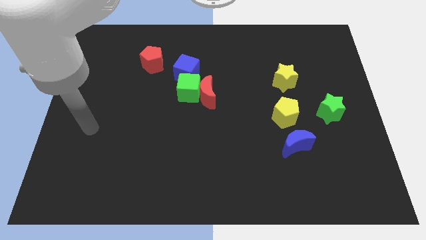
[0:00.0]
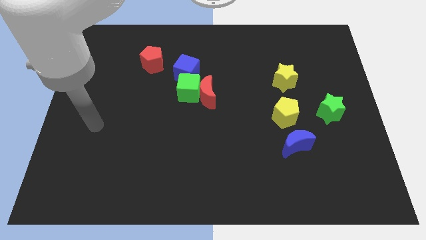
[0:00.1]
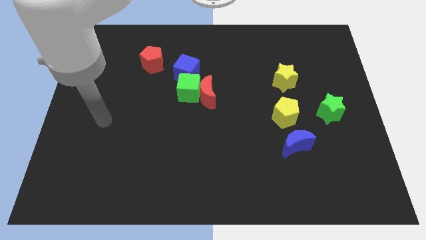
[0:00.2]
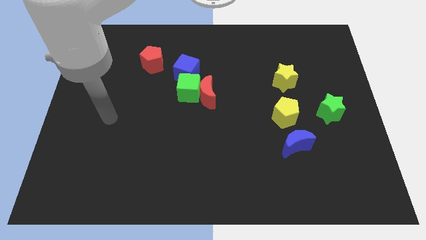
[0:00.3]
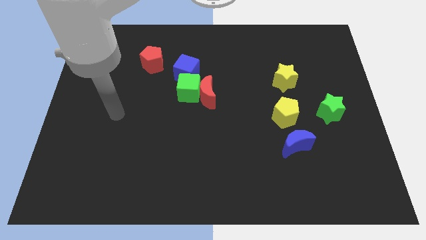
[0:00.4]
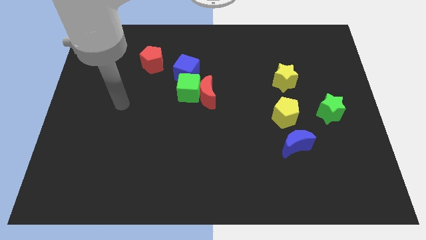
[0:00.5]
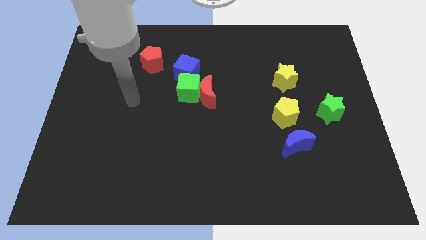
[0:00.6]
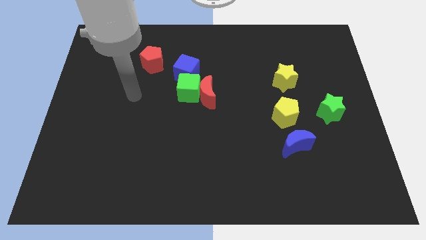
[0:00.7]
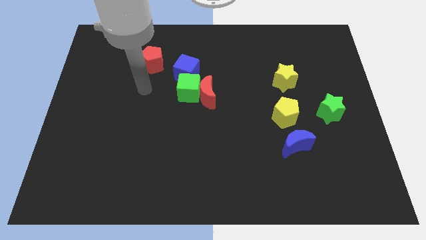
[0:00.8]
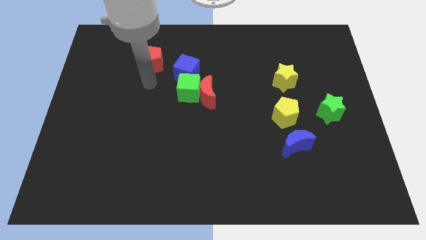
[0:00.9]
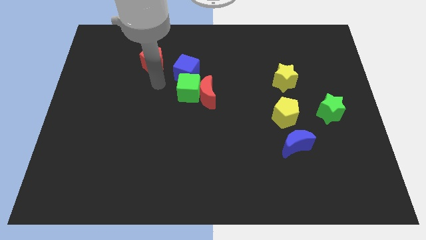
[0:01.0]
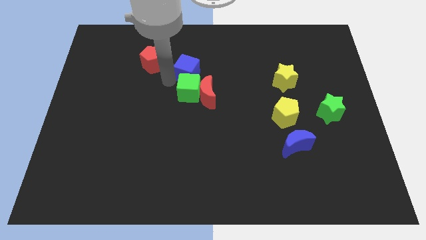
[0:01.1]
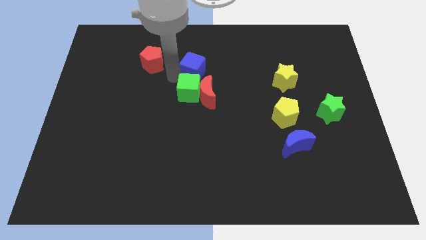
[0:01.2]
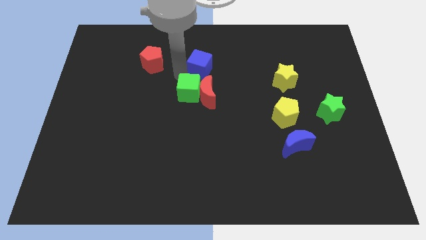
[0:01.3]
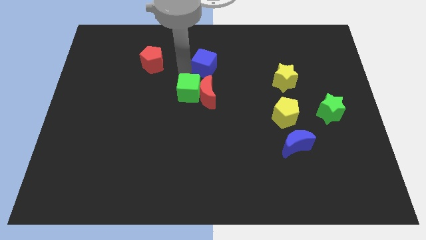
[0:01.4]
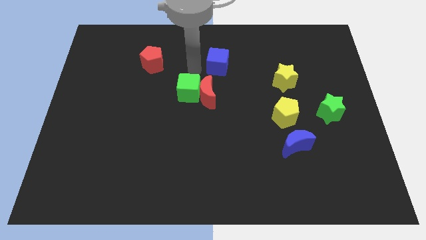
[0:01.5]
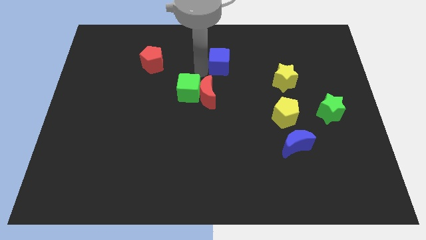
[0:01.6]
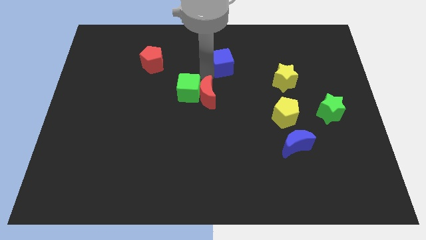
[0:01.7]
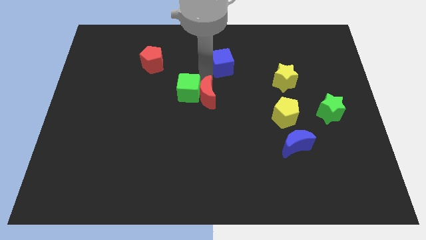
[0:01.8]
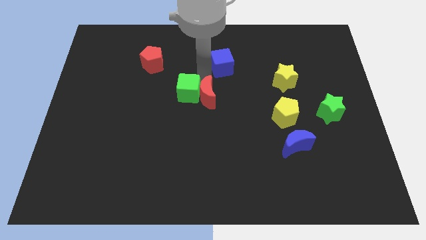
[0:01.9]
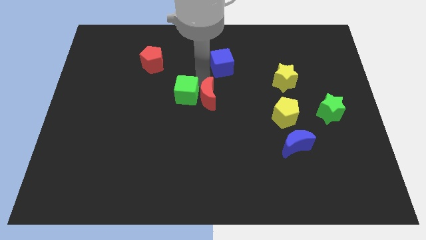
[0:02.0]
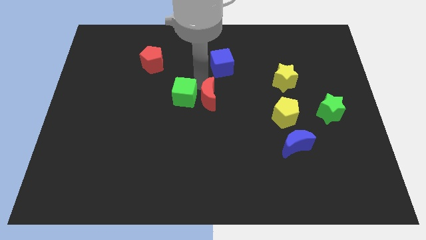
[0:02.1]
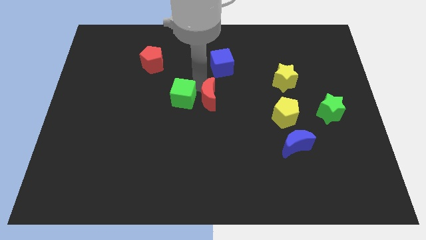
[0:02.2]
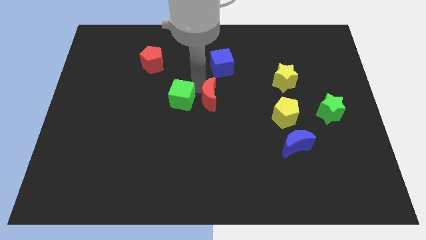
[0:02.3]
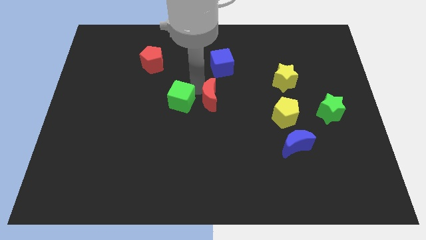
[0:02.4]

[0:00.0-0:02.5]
pull the green cube apart from the red moon and blue cube

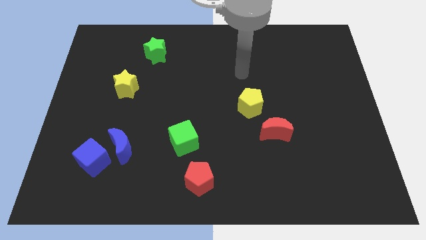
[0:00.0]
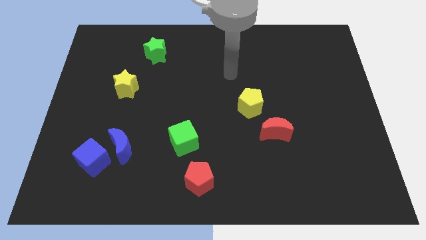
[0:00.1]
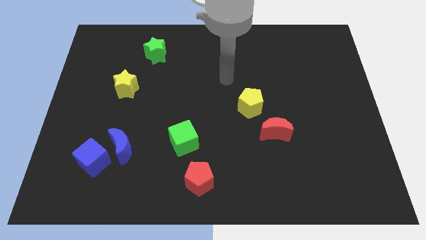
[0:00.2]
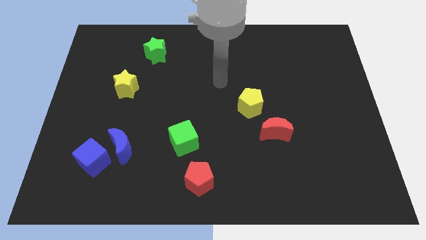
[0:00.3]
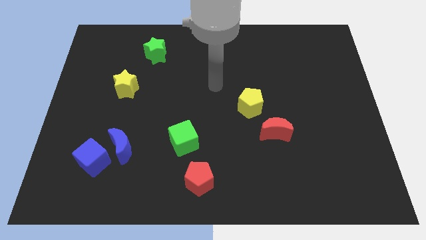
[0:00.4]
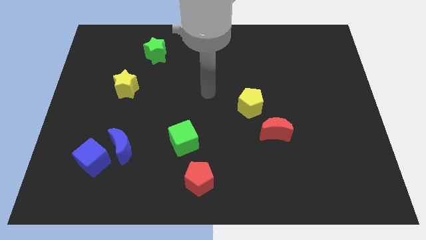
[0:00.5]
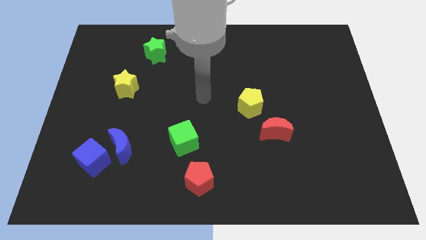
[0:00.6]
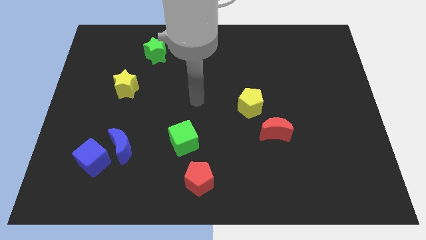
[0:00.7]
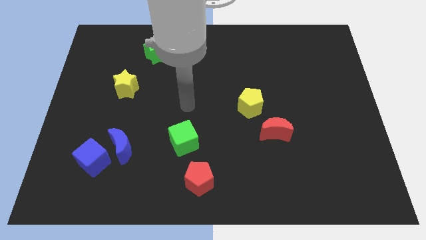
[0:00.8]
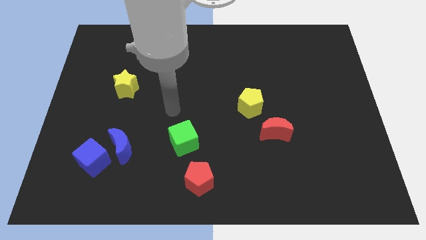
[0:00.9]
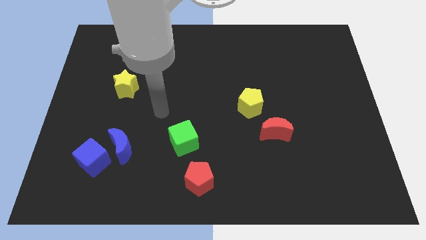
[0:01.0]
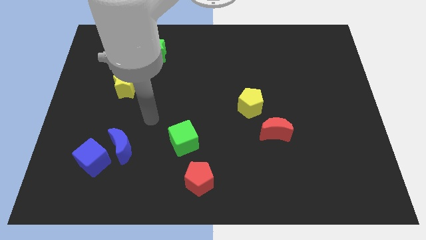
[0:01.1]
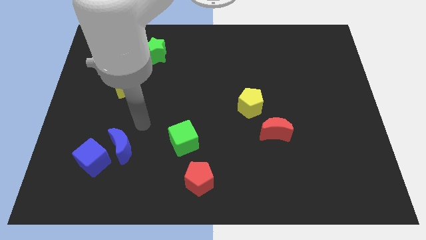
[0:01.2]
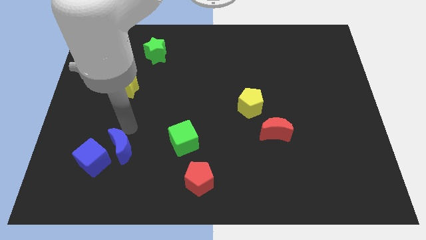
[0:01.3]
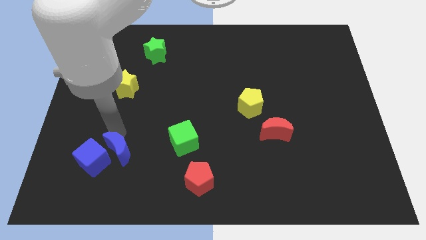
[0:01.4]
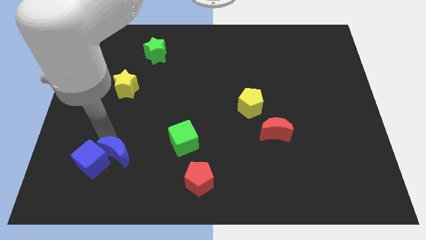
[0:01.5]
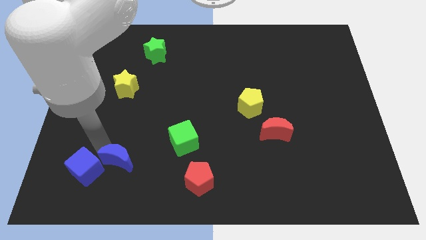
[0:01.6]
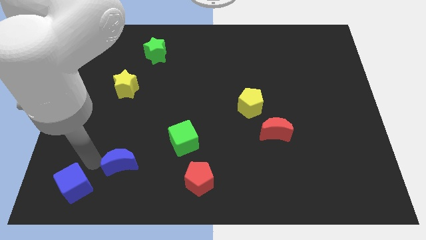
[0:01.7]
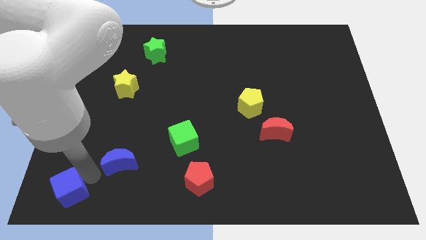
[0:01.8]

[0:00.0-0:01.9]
move the blue moon away from the blue cube

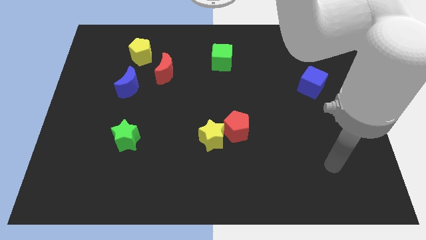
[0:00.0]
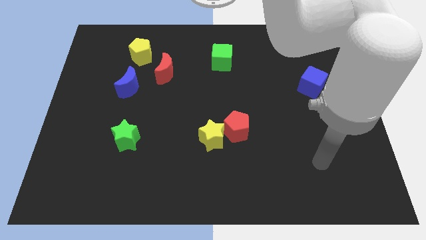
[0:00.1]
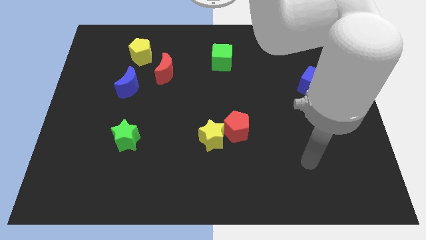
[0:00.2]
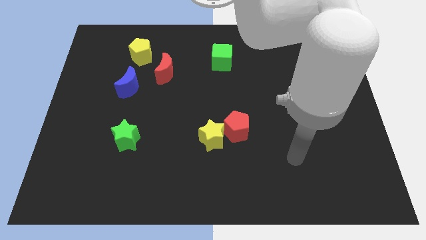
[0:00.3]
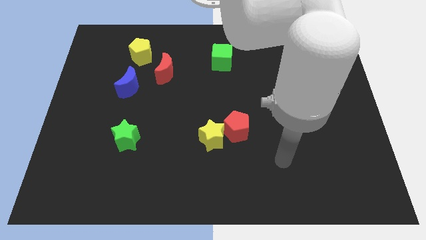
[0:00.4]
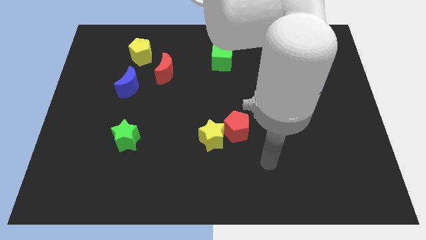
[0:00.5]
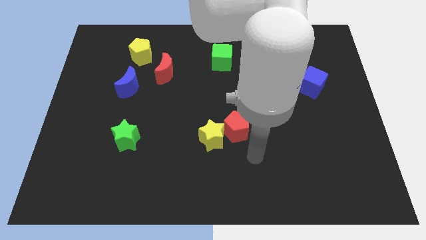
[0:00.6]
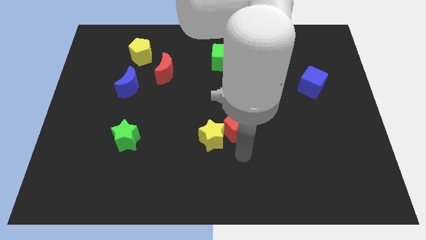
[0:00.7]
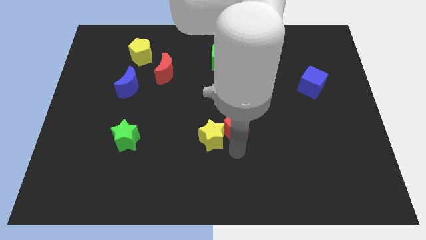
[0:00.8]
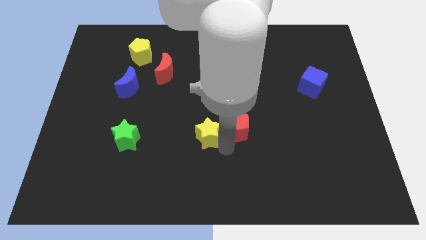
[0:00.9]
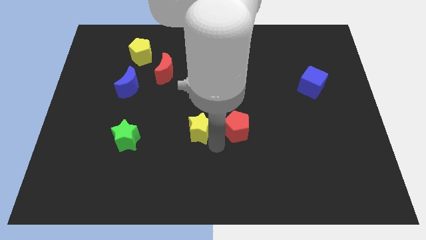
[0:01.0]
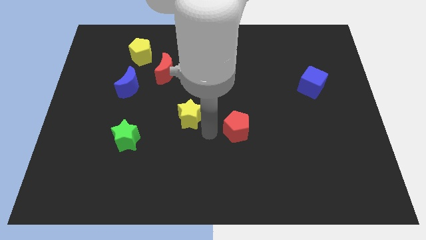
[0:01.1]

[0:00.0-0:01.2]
move the red pentagon away from the yellow star

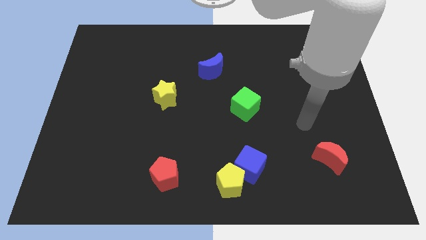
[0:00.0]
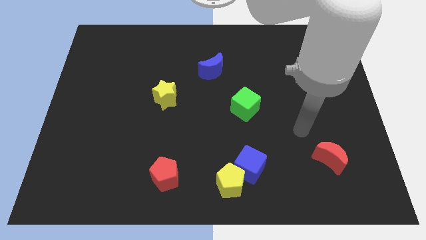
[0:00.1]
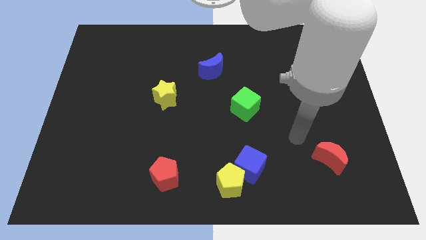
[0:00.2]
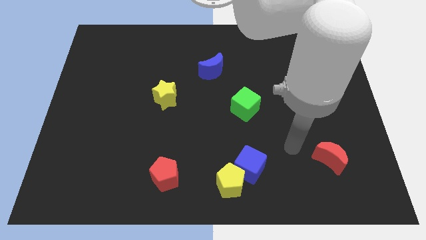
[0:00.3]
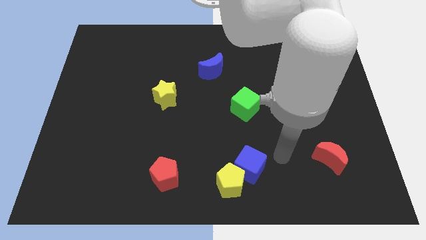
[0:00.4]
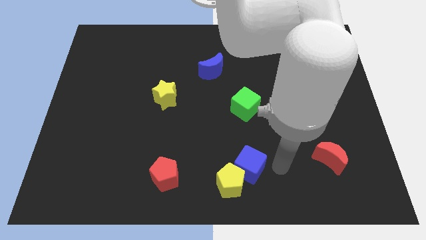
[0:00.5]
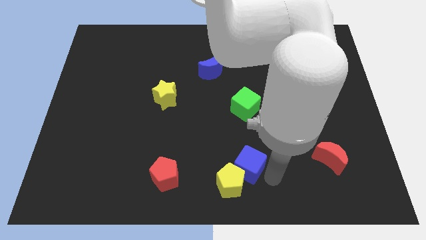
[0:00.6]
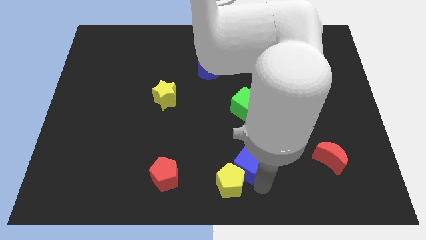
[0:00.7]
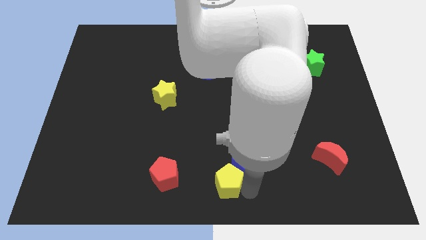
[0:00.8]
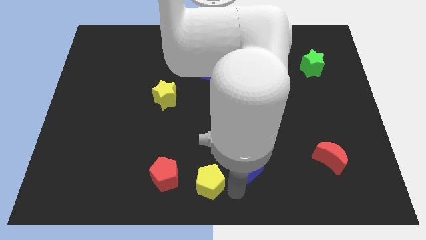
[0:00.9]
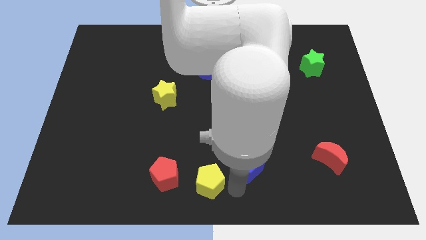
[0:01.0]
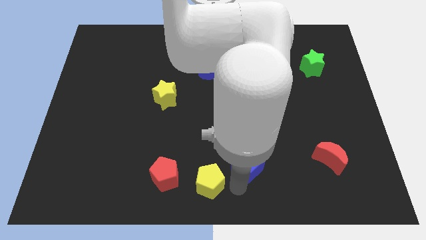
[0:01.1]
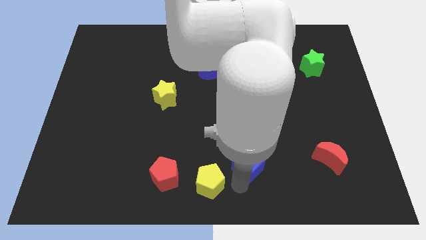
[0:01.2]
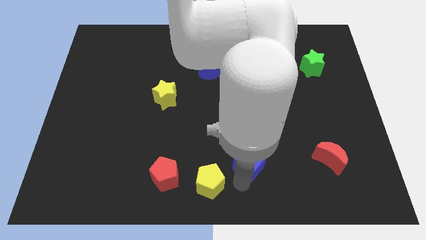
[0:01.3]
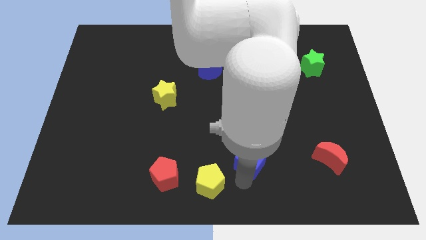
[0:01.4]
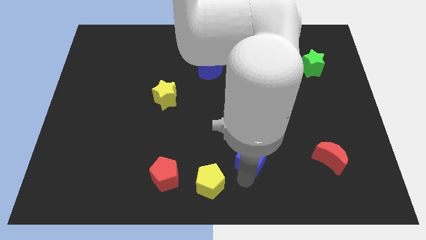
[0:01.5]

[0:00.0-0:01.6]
pull the blue cube apart from the yellow pentagon

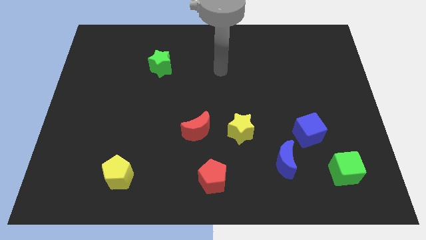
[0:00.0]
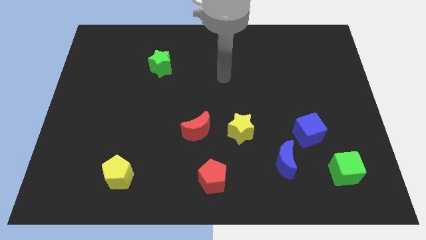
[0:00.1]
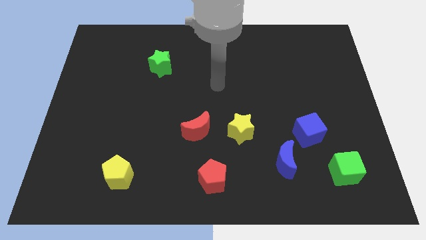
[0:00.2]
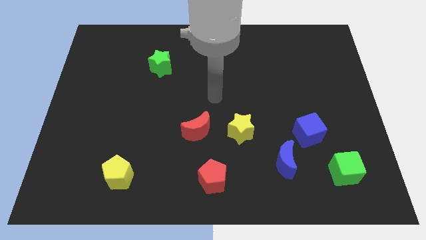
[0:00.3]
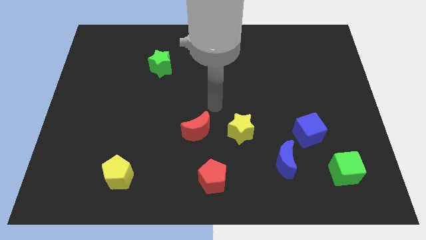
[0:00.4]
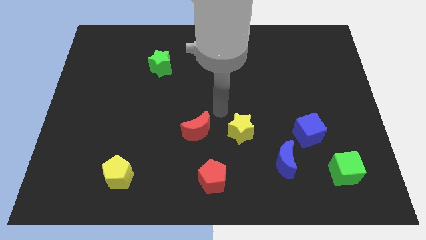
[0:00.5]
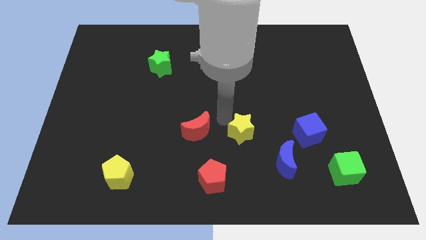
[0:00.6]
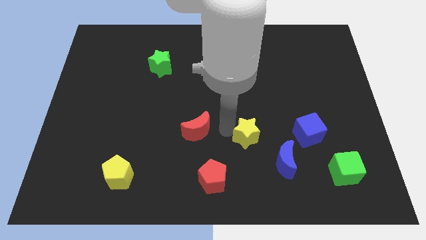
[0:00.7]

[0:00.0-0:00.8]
move the red moon away from the yellow star

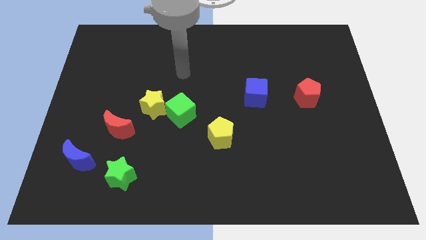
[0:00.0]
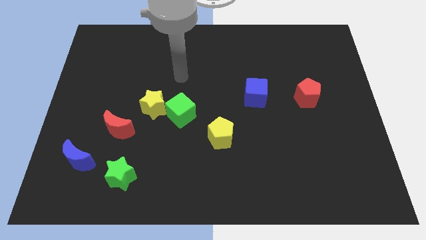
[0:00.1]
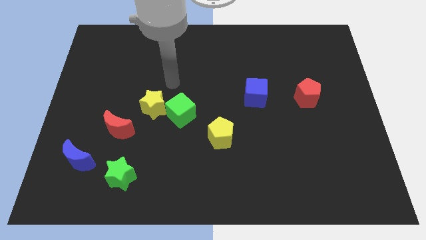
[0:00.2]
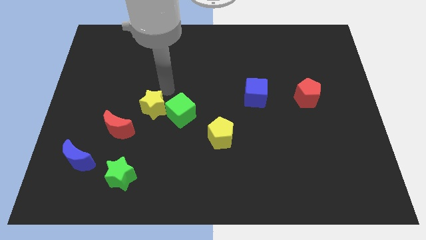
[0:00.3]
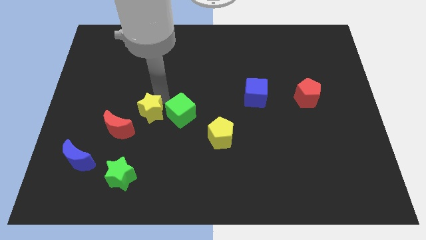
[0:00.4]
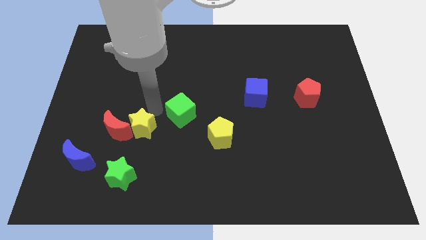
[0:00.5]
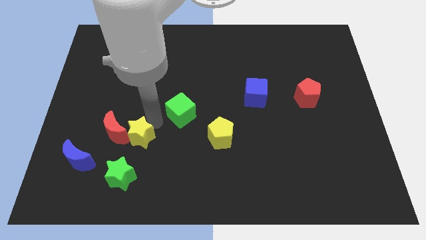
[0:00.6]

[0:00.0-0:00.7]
move the green cube away from the yellow star

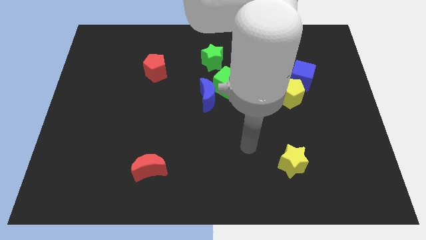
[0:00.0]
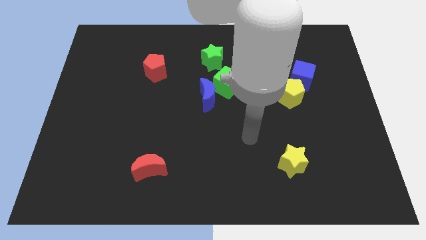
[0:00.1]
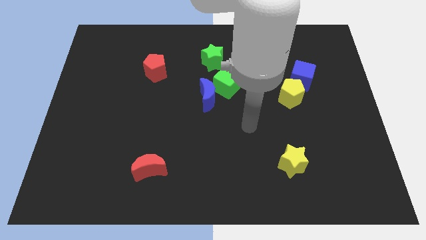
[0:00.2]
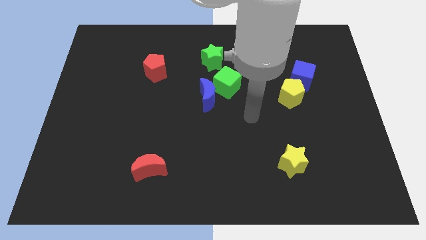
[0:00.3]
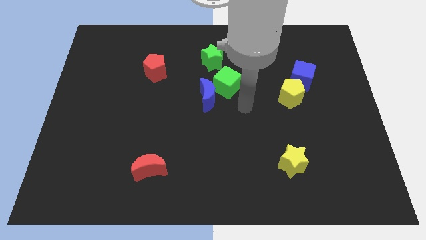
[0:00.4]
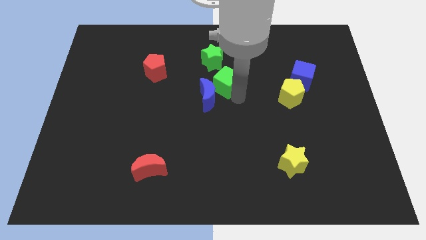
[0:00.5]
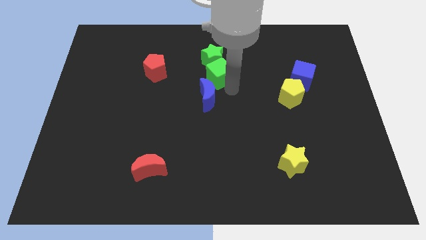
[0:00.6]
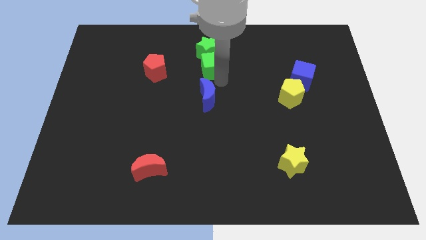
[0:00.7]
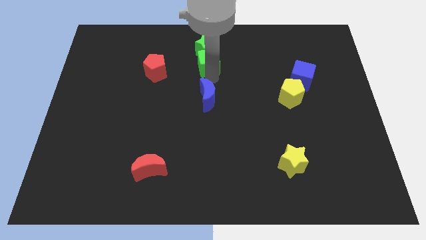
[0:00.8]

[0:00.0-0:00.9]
separate the blue moon from the green cube
